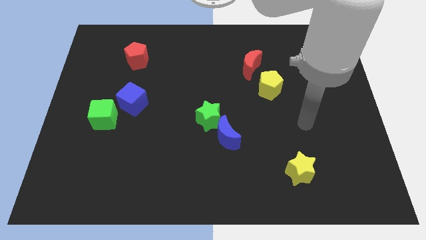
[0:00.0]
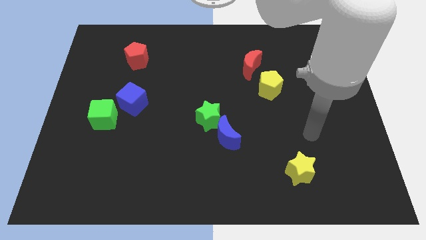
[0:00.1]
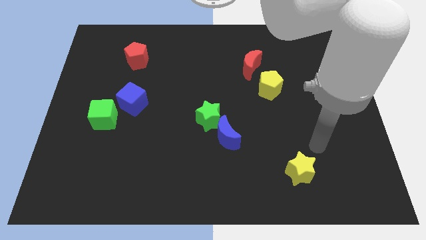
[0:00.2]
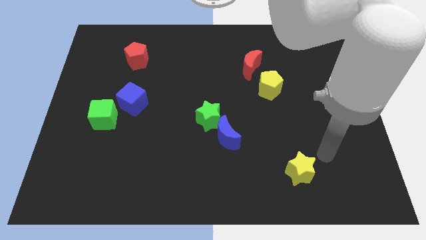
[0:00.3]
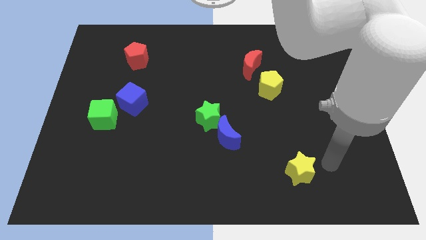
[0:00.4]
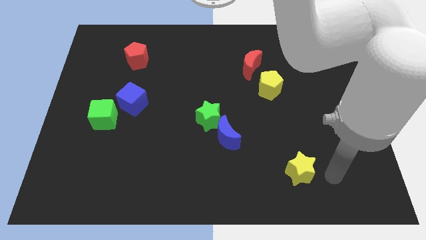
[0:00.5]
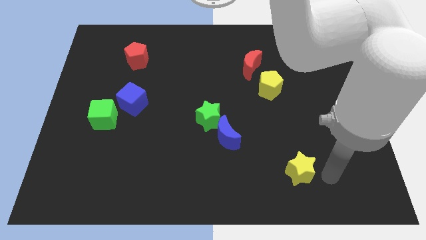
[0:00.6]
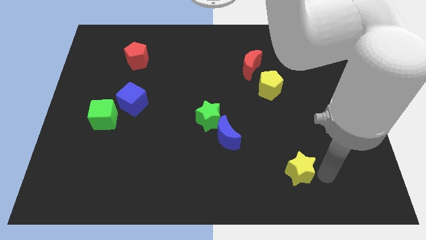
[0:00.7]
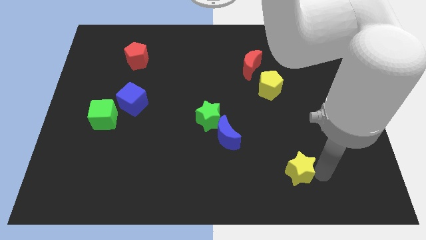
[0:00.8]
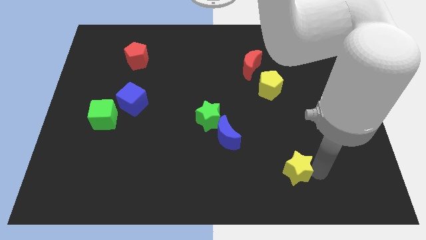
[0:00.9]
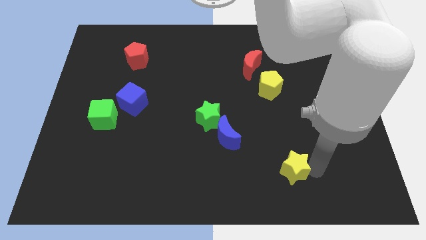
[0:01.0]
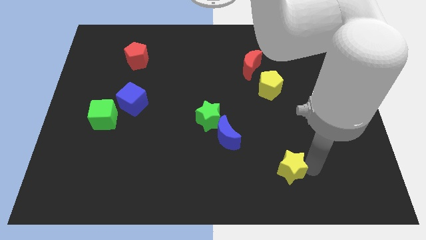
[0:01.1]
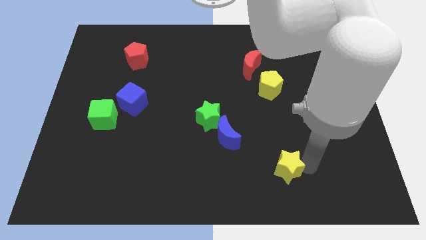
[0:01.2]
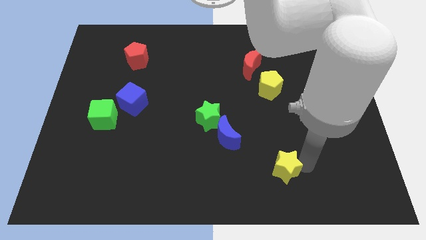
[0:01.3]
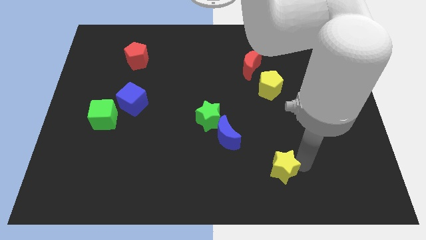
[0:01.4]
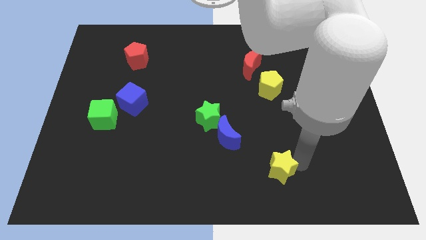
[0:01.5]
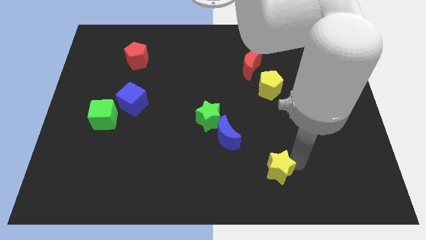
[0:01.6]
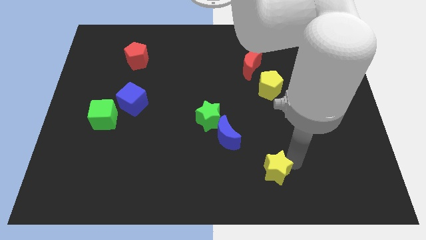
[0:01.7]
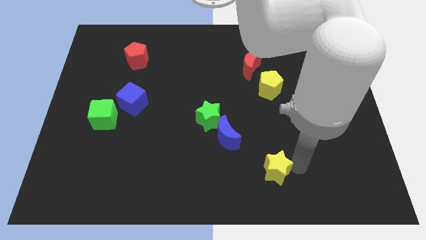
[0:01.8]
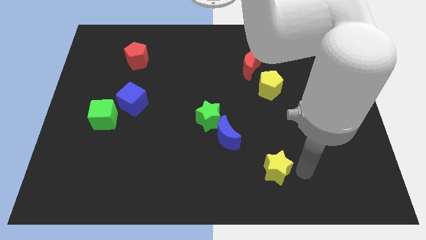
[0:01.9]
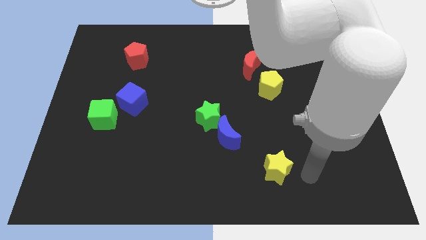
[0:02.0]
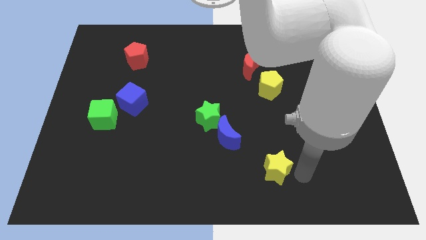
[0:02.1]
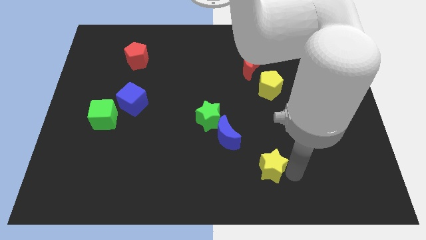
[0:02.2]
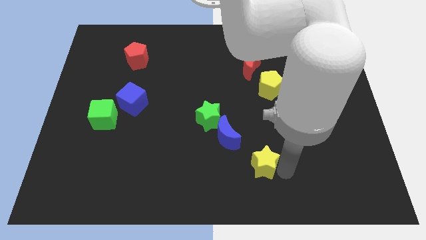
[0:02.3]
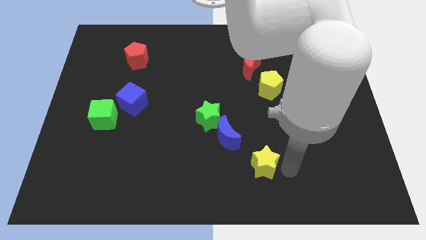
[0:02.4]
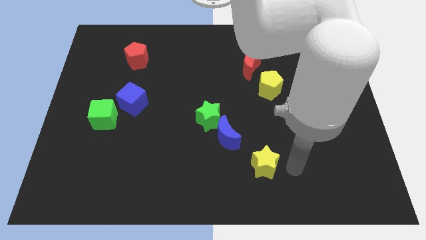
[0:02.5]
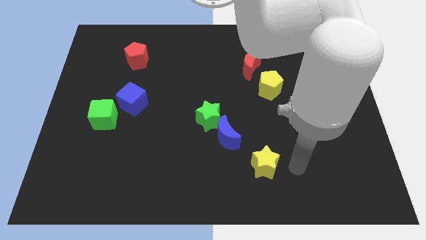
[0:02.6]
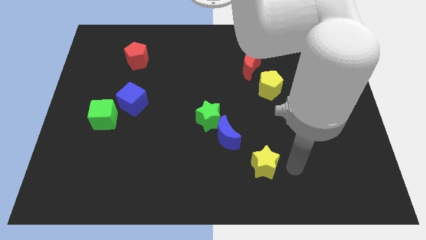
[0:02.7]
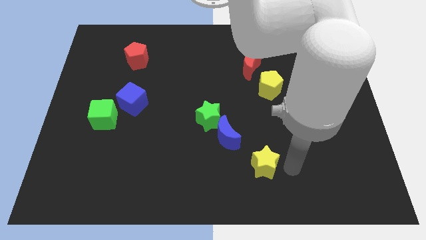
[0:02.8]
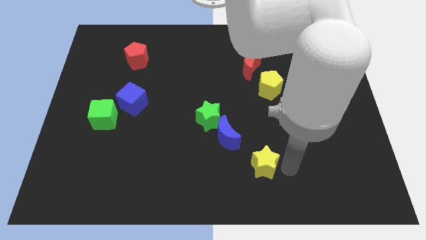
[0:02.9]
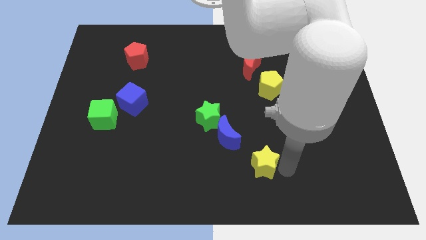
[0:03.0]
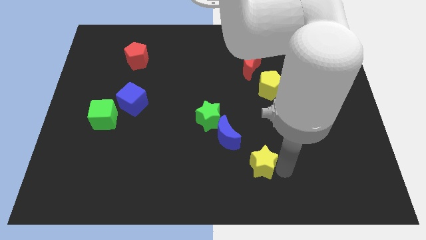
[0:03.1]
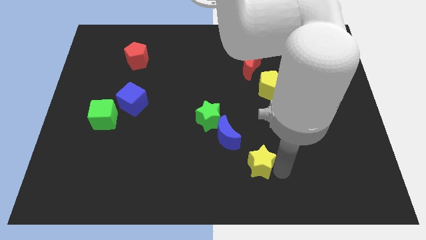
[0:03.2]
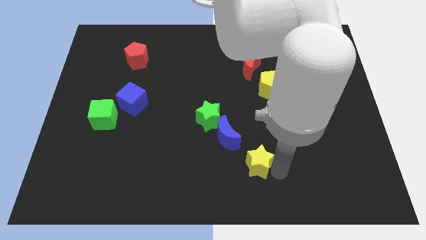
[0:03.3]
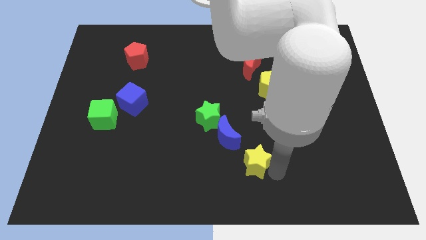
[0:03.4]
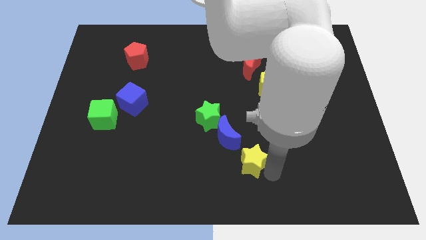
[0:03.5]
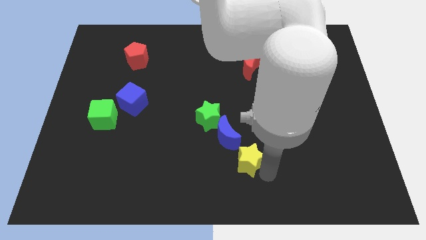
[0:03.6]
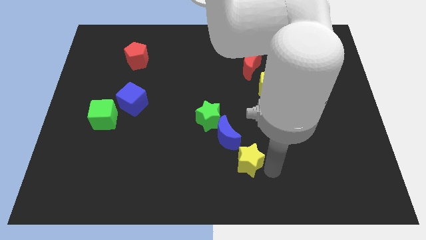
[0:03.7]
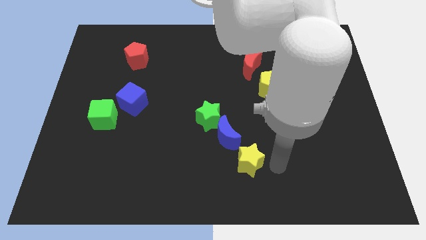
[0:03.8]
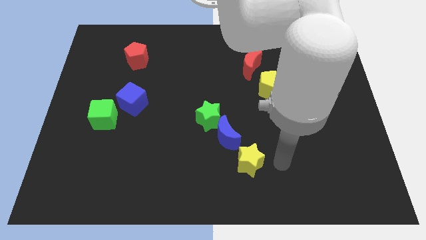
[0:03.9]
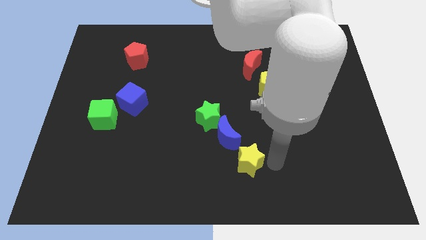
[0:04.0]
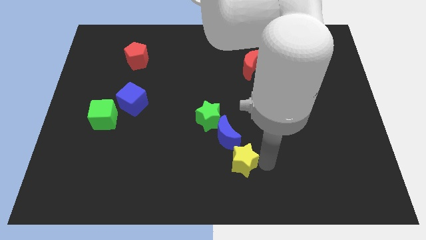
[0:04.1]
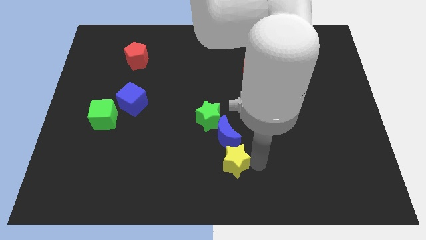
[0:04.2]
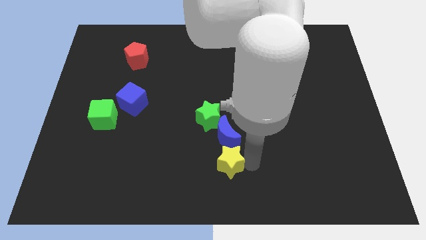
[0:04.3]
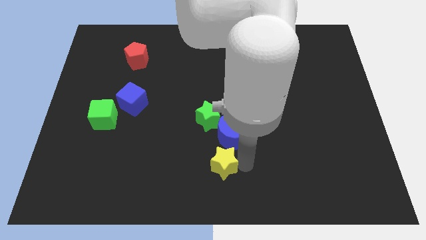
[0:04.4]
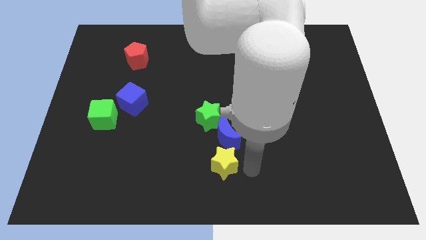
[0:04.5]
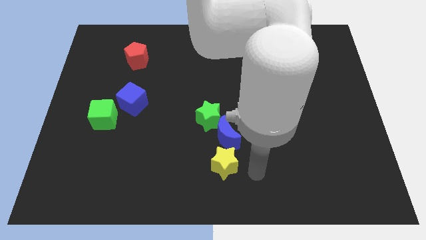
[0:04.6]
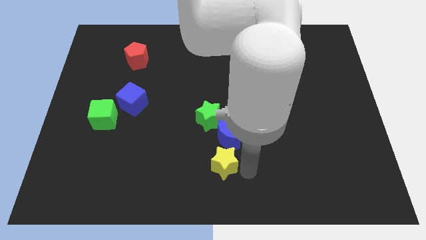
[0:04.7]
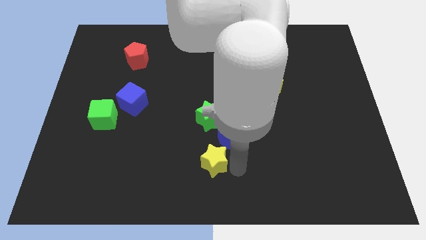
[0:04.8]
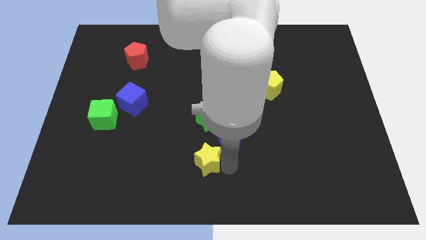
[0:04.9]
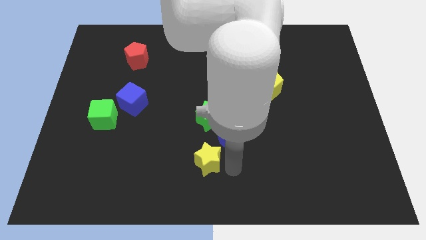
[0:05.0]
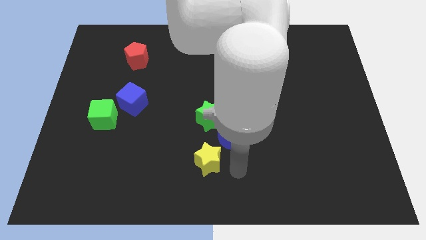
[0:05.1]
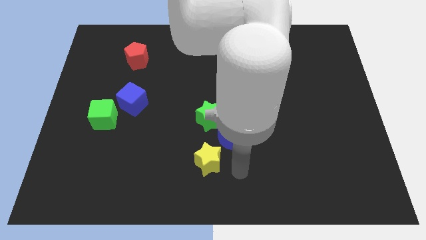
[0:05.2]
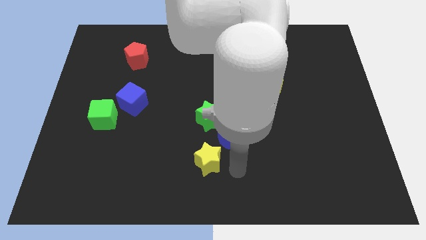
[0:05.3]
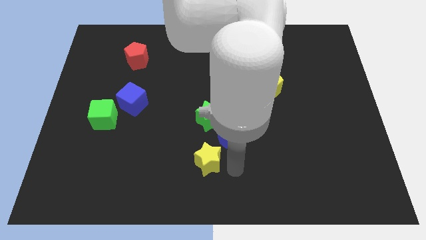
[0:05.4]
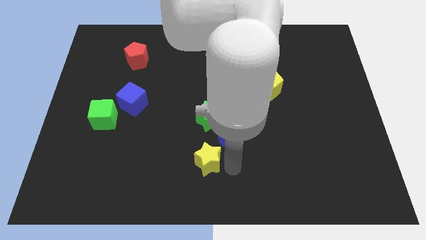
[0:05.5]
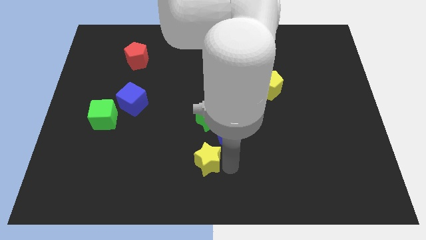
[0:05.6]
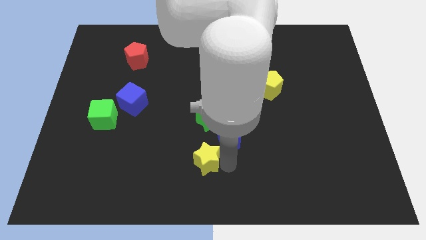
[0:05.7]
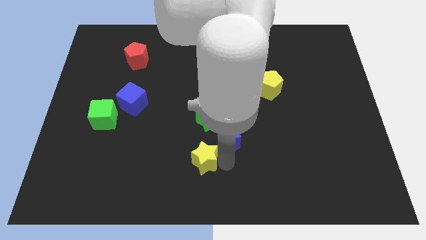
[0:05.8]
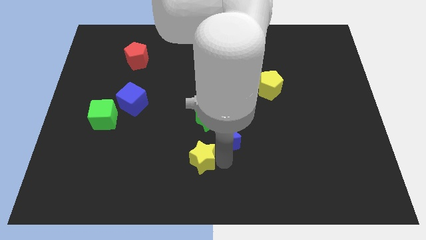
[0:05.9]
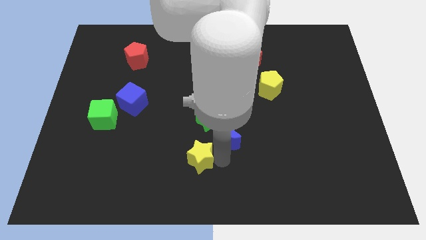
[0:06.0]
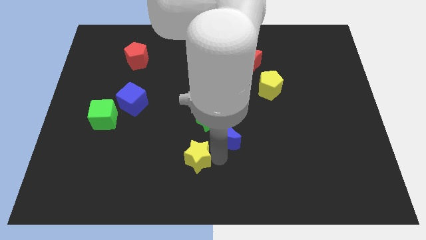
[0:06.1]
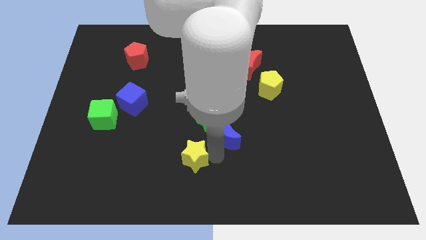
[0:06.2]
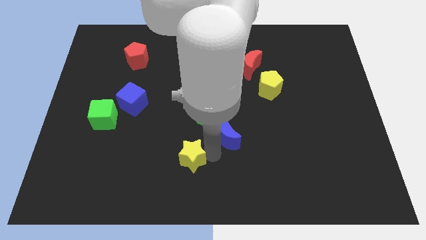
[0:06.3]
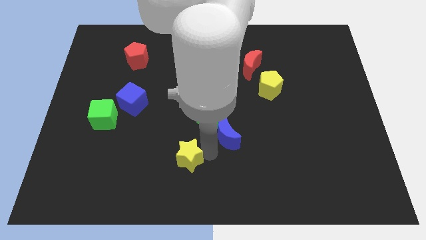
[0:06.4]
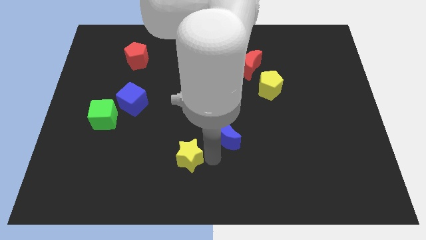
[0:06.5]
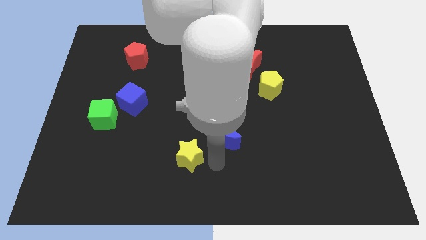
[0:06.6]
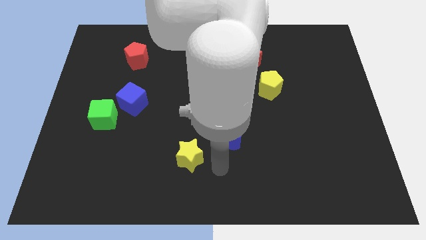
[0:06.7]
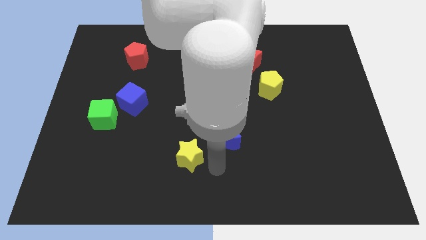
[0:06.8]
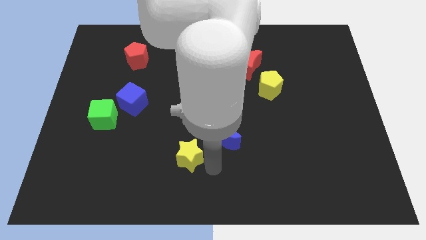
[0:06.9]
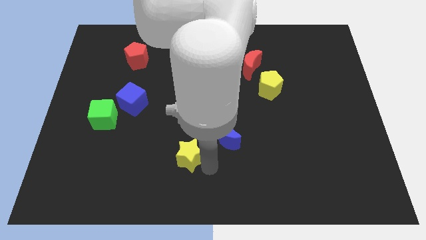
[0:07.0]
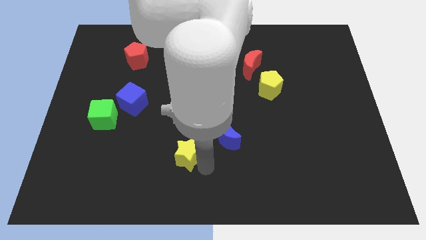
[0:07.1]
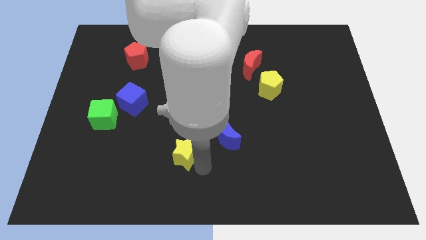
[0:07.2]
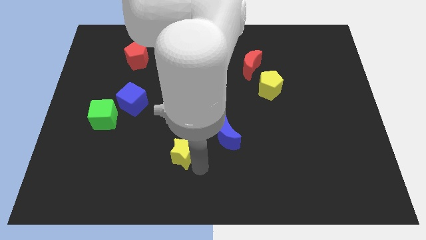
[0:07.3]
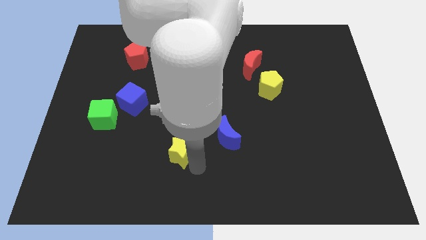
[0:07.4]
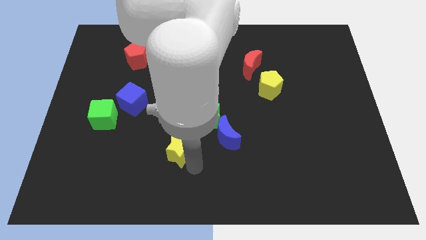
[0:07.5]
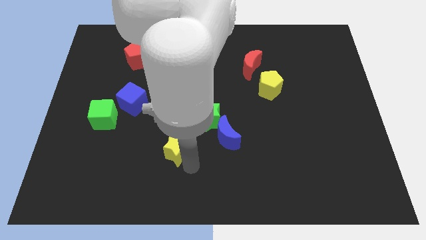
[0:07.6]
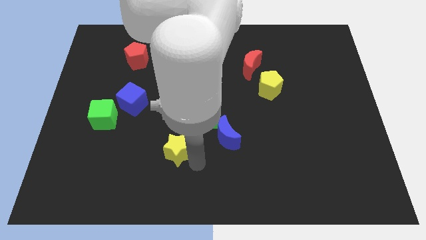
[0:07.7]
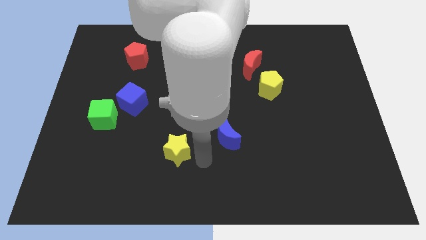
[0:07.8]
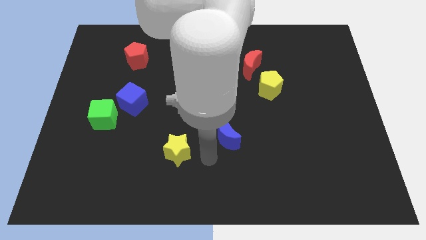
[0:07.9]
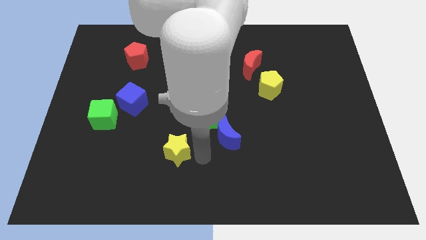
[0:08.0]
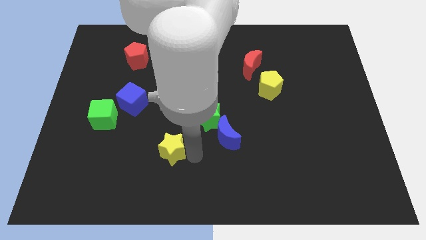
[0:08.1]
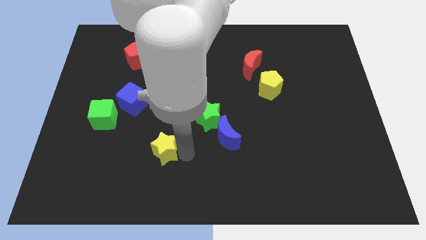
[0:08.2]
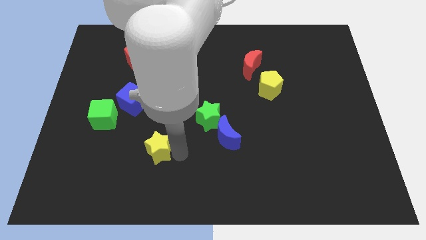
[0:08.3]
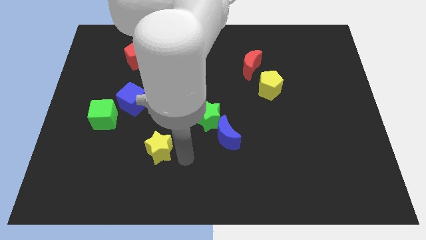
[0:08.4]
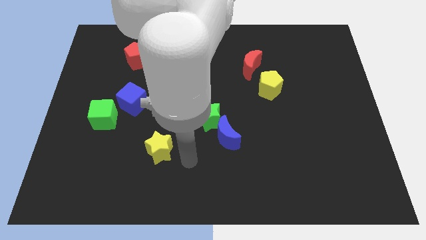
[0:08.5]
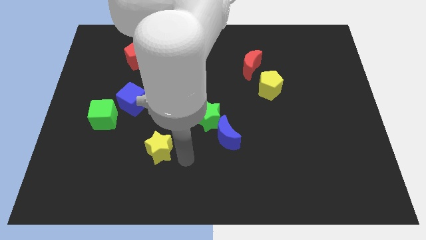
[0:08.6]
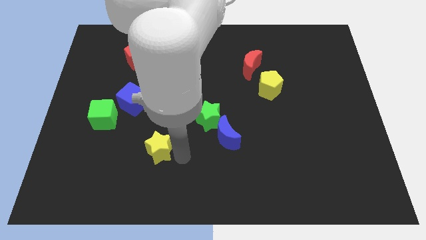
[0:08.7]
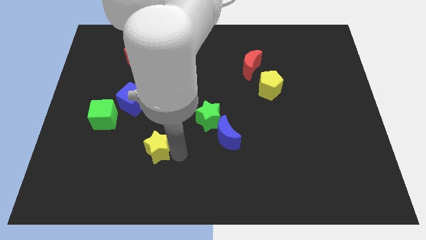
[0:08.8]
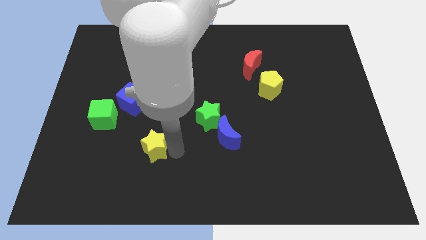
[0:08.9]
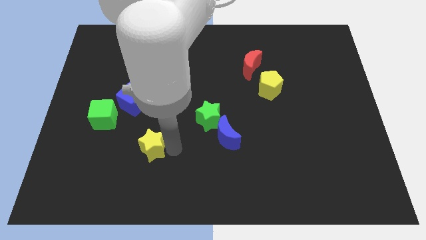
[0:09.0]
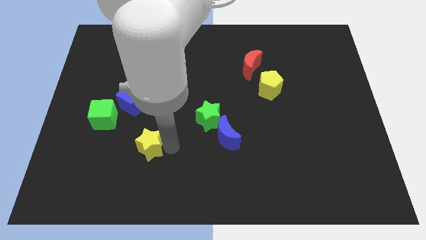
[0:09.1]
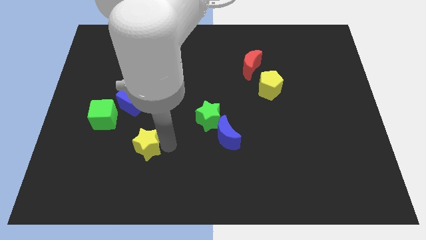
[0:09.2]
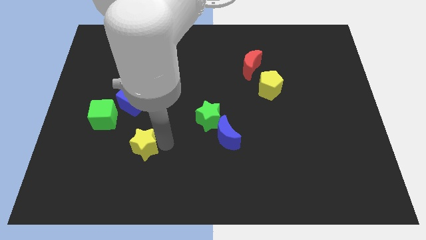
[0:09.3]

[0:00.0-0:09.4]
move the yellow star to the bottom side of the blue cube
